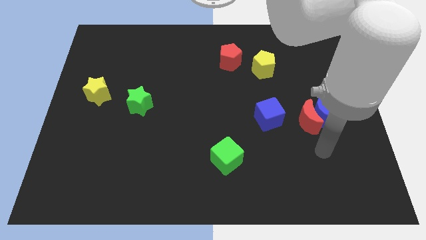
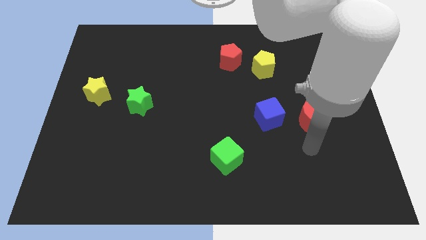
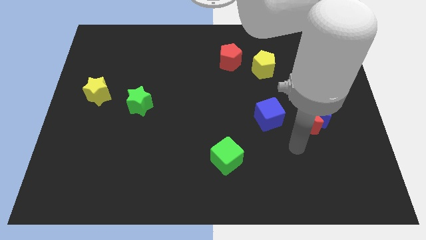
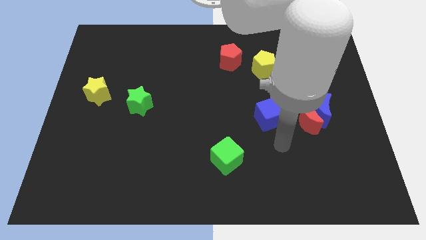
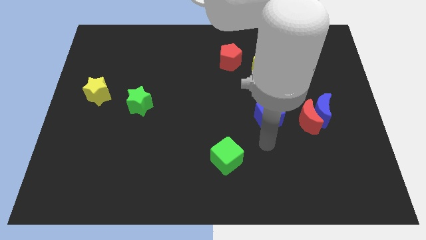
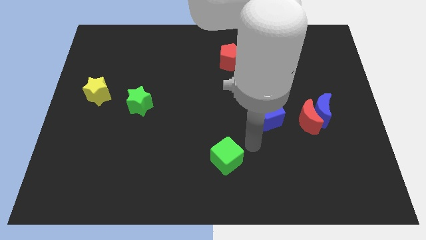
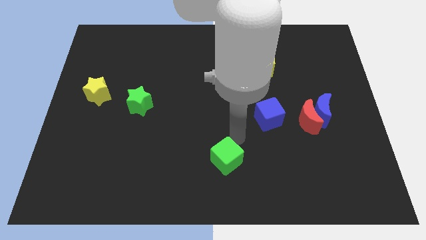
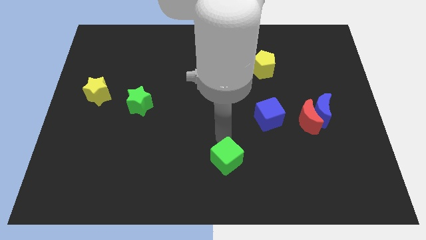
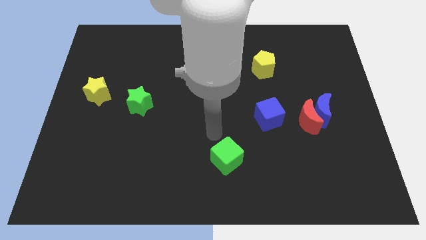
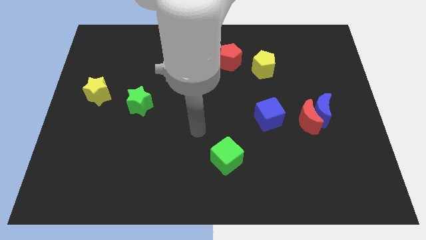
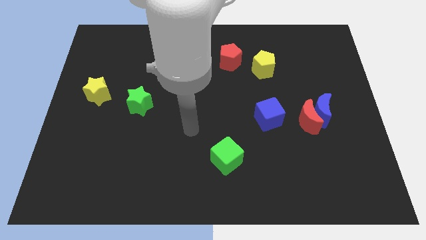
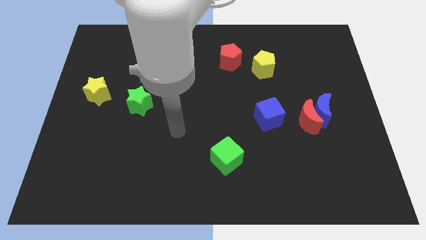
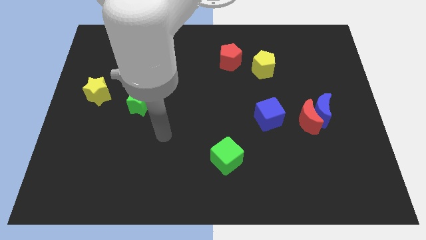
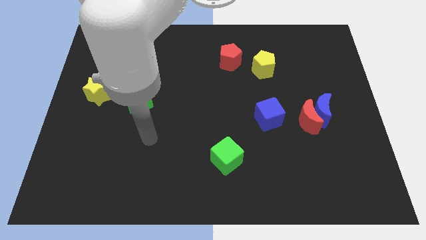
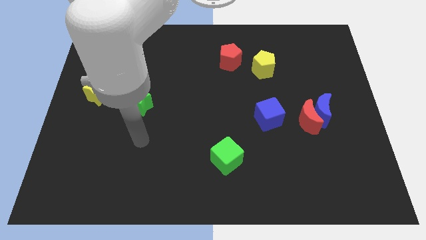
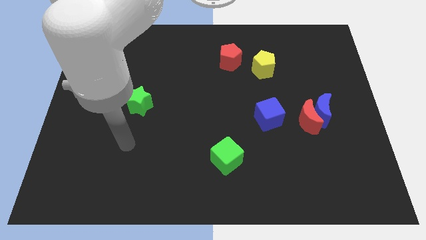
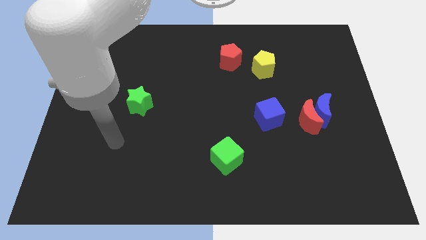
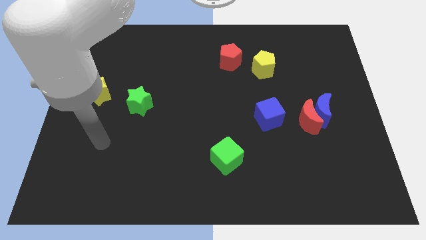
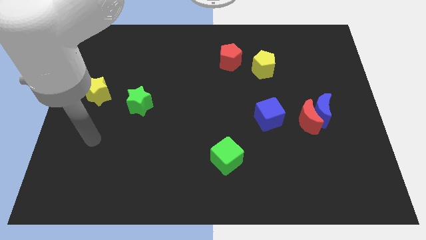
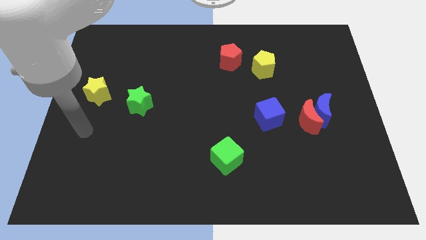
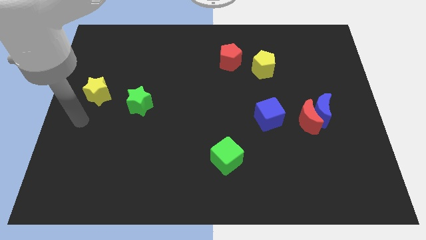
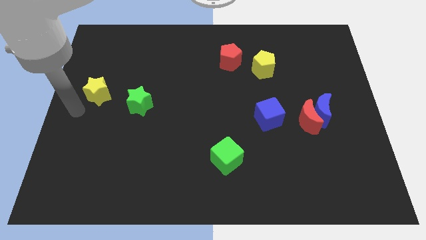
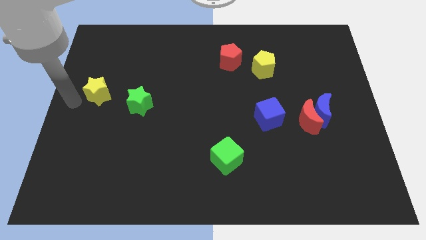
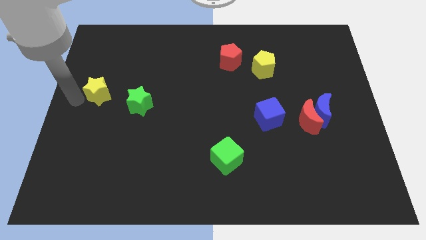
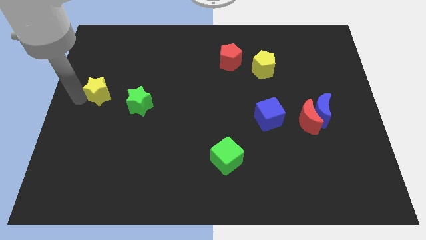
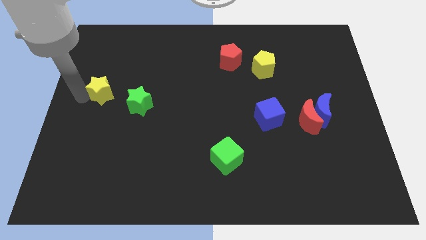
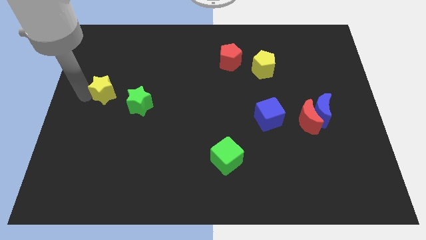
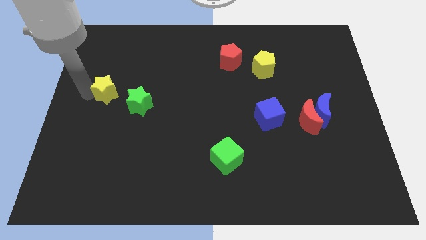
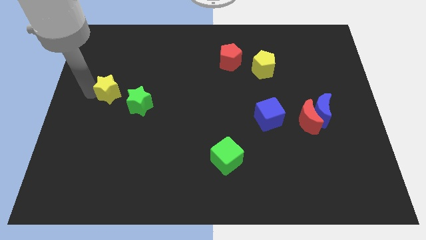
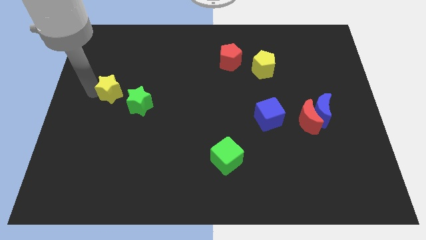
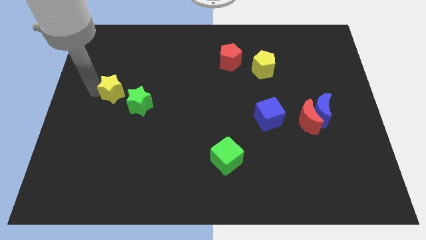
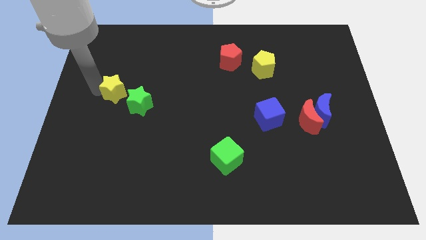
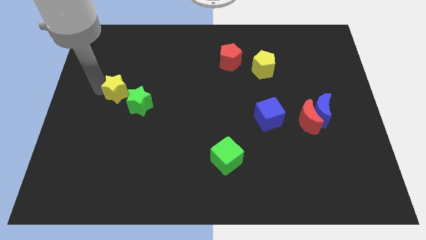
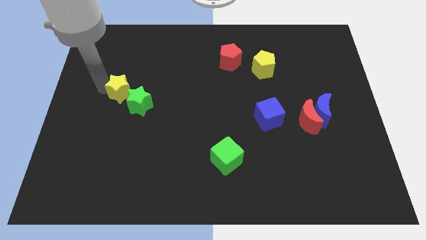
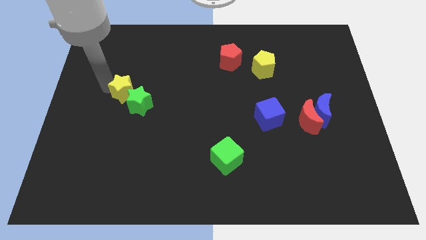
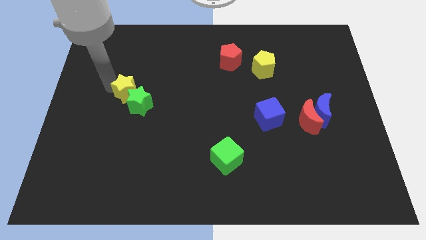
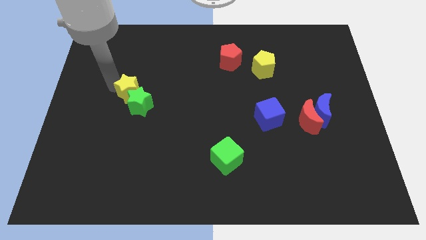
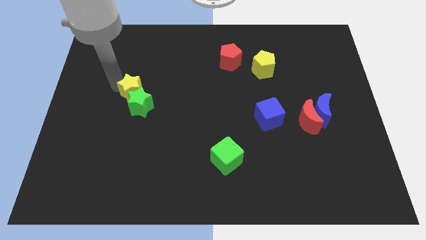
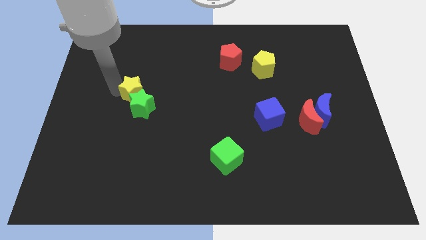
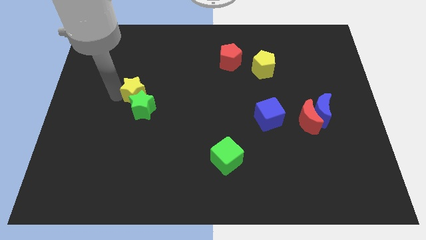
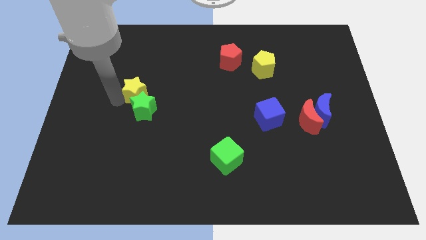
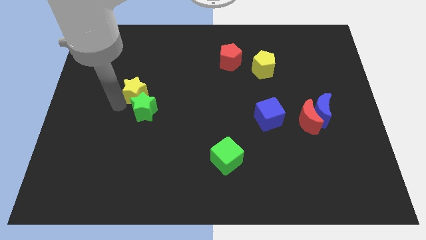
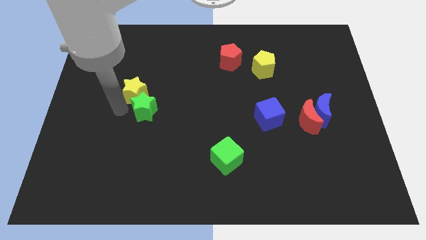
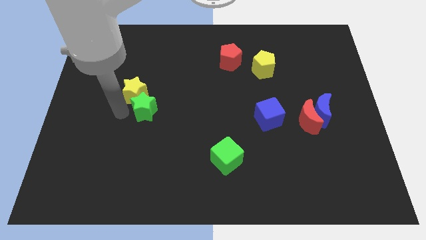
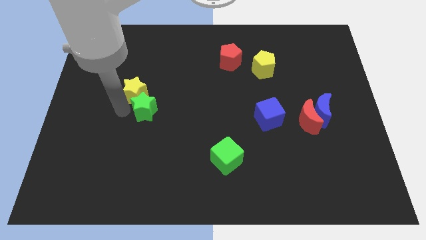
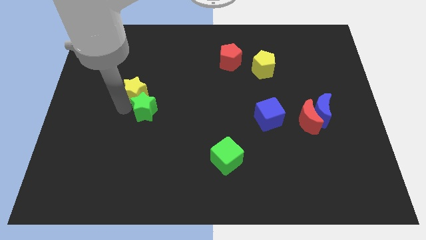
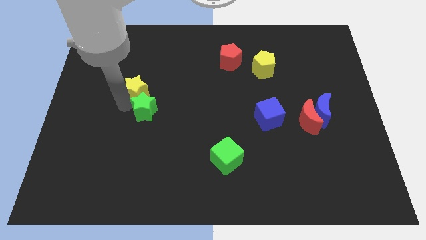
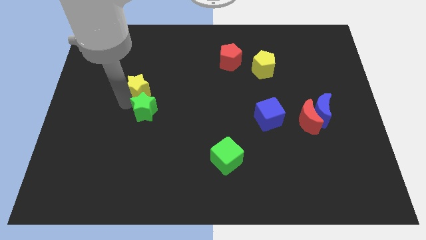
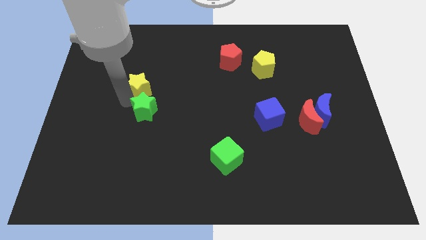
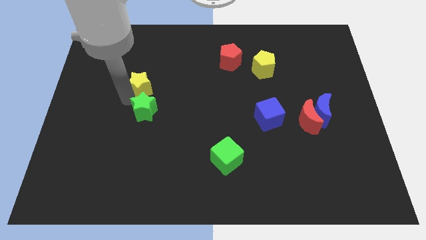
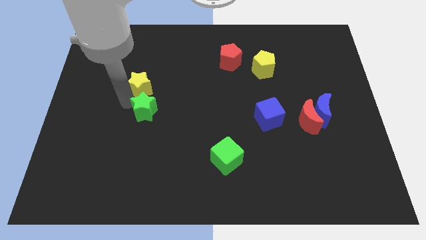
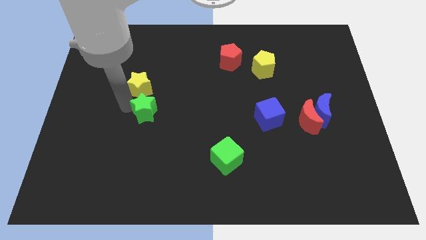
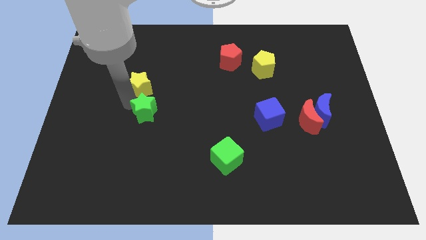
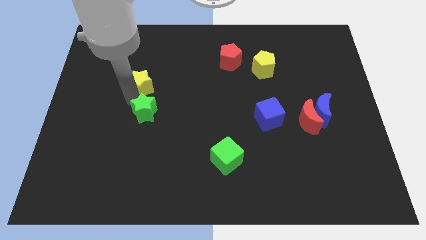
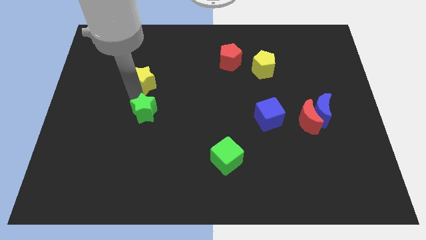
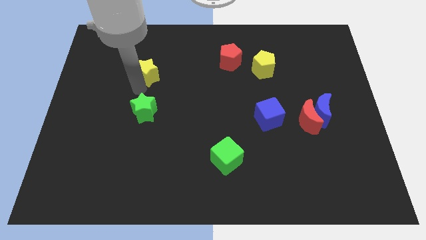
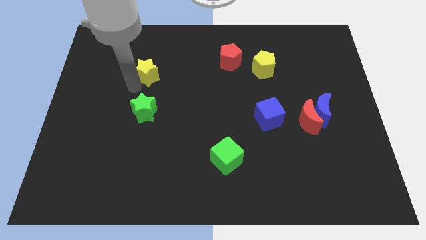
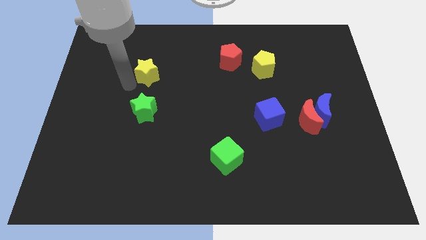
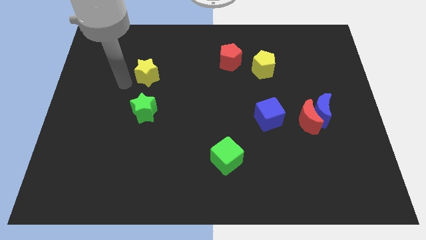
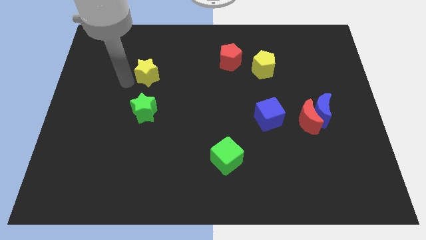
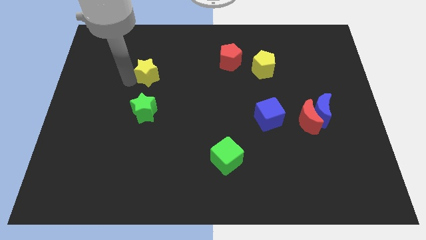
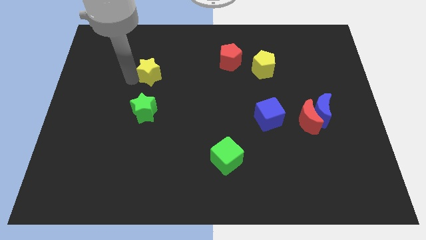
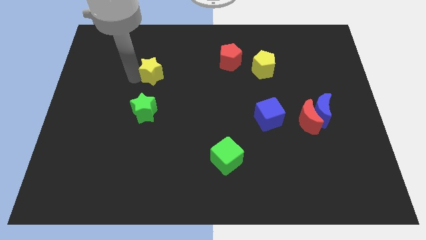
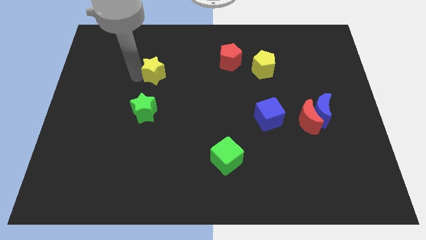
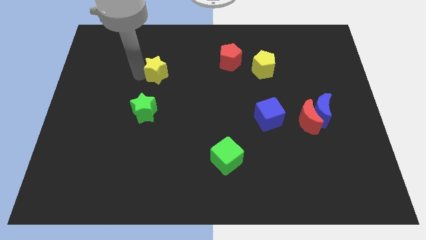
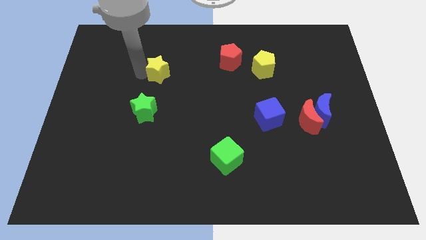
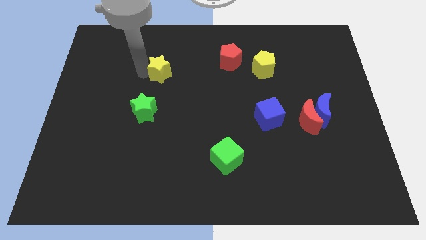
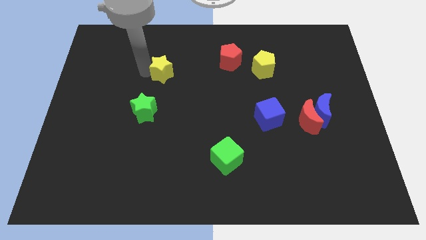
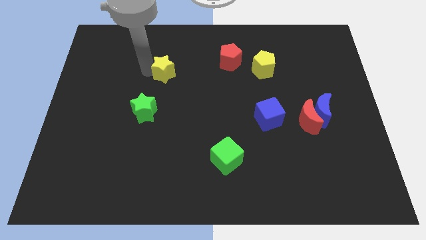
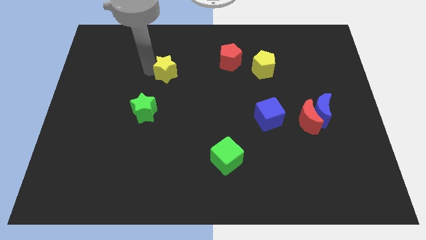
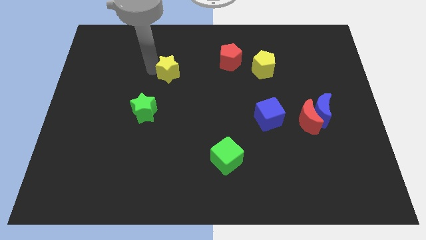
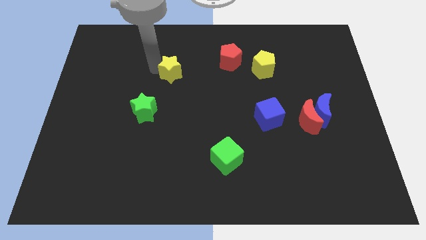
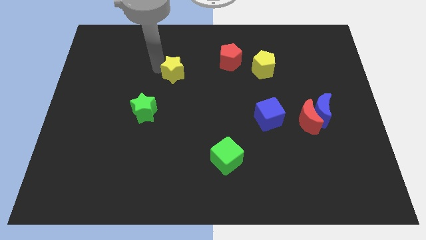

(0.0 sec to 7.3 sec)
move the yellow star left of the red pentagon
